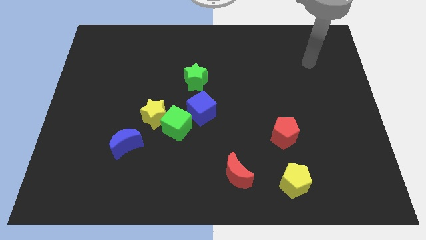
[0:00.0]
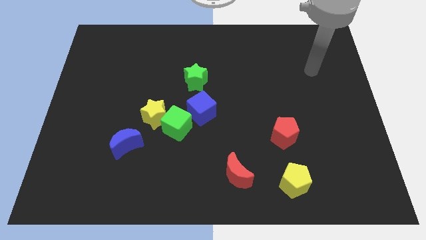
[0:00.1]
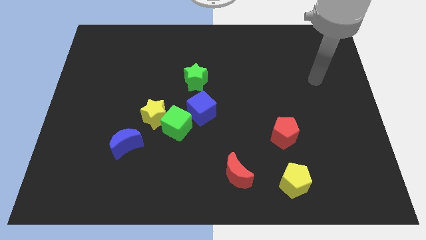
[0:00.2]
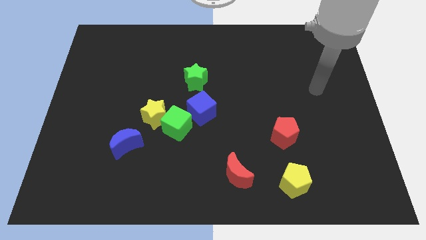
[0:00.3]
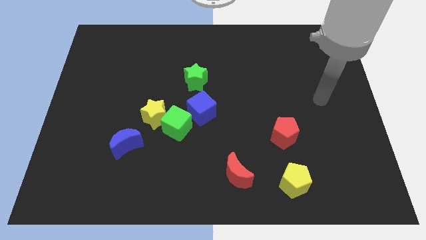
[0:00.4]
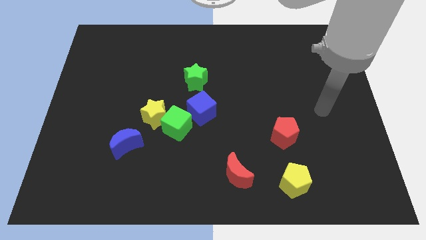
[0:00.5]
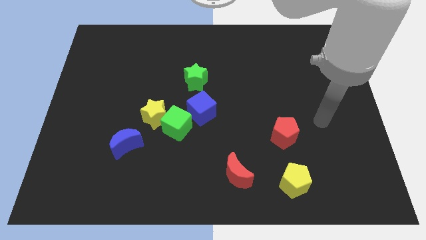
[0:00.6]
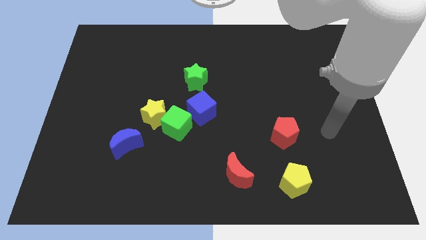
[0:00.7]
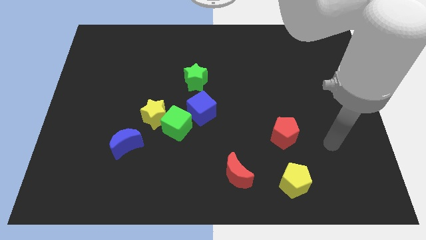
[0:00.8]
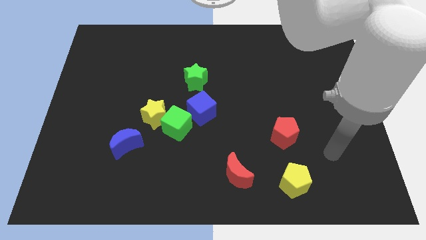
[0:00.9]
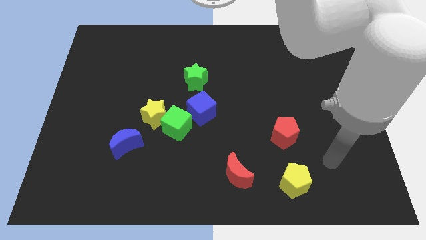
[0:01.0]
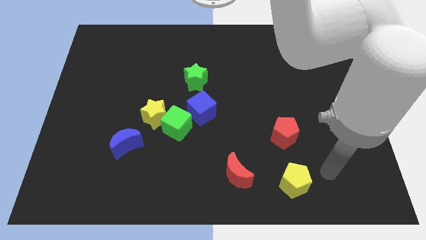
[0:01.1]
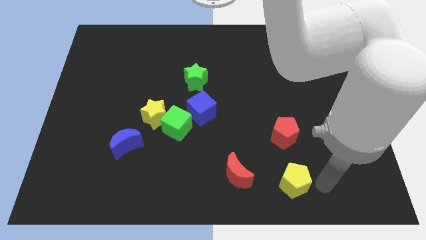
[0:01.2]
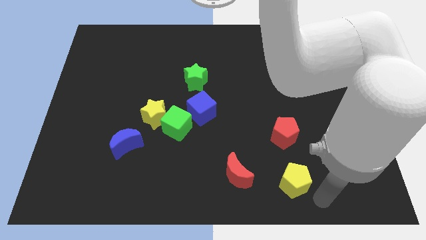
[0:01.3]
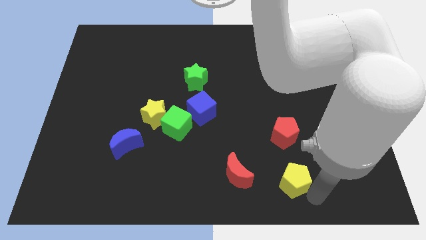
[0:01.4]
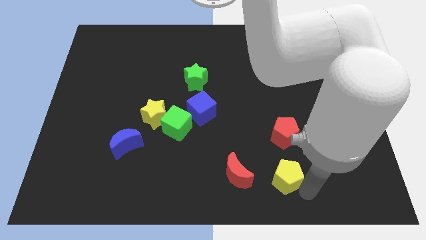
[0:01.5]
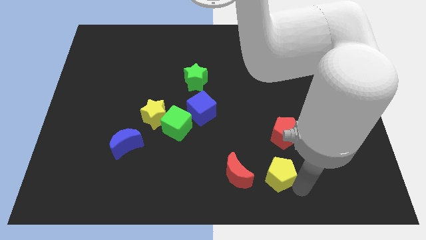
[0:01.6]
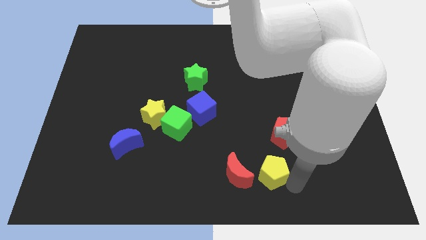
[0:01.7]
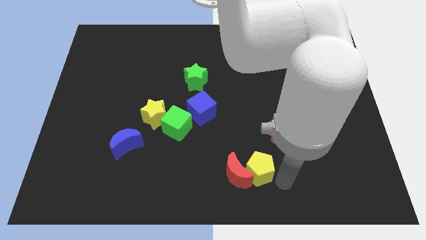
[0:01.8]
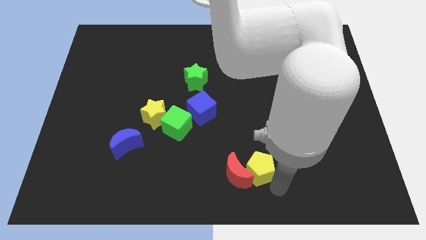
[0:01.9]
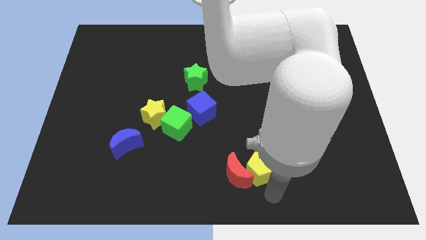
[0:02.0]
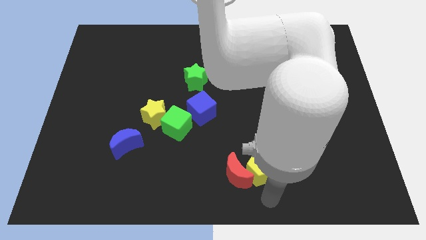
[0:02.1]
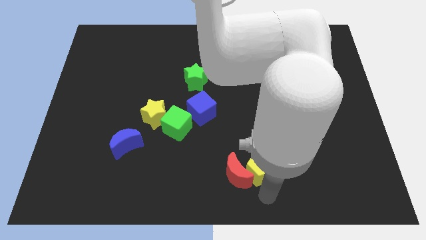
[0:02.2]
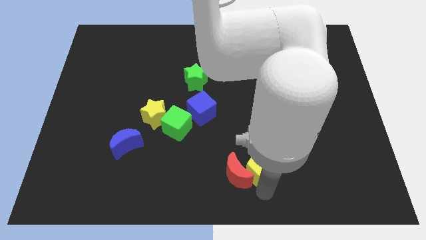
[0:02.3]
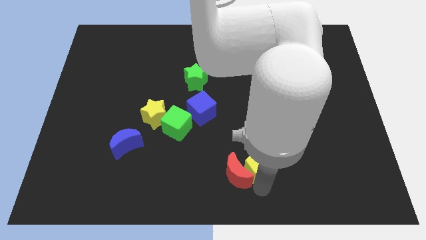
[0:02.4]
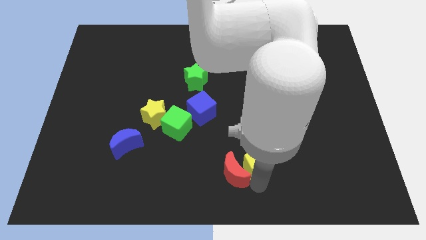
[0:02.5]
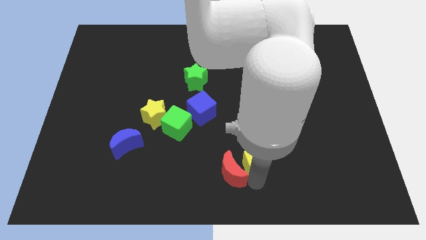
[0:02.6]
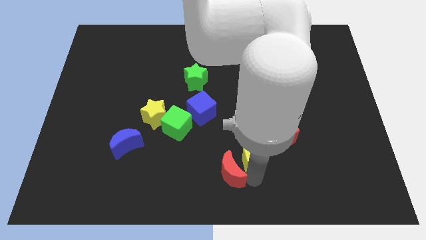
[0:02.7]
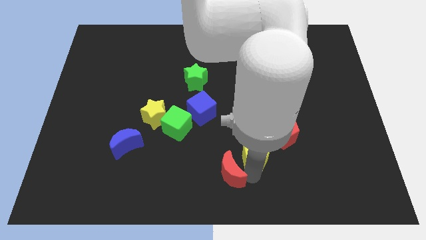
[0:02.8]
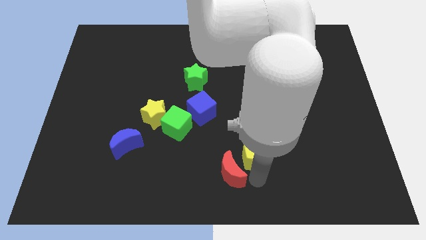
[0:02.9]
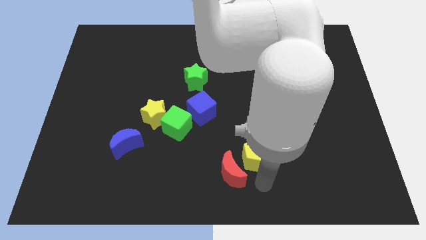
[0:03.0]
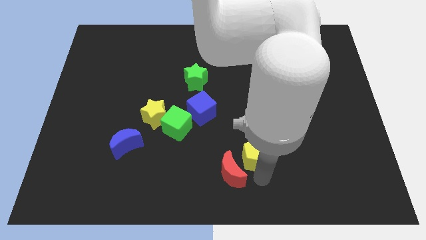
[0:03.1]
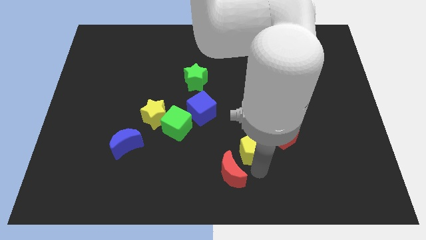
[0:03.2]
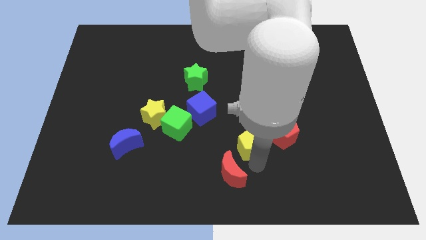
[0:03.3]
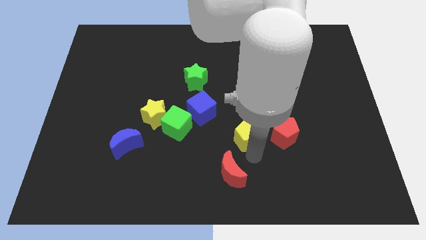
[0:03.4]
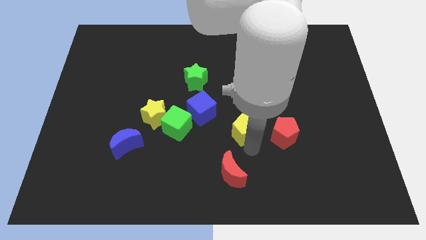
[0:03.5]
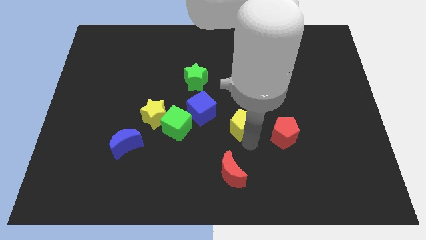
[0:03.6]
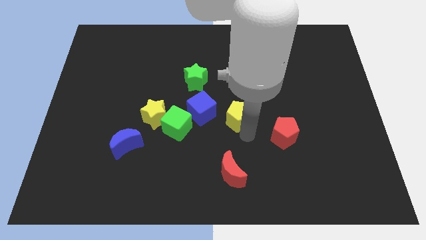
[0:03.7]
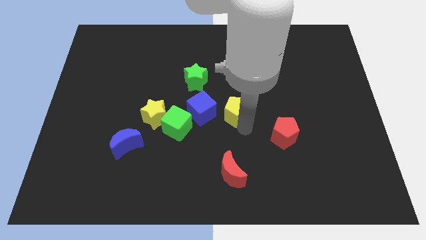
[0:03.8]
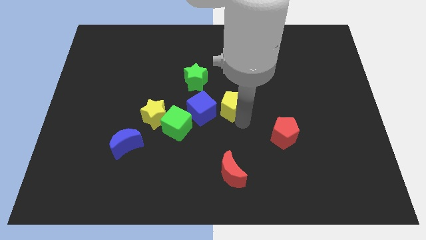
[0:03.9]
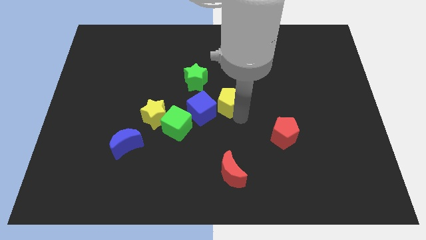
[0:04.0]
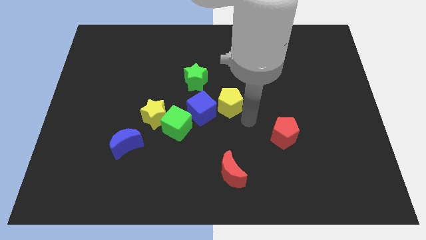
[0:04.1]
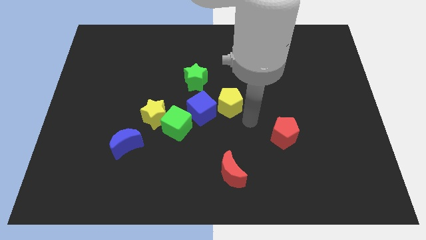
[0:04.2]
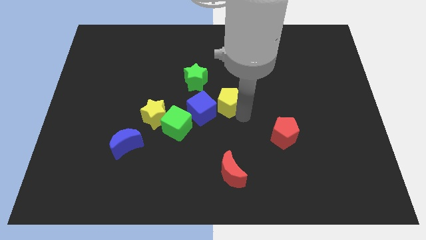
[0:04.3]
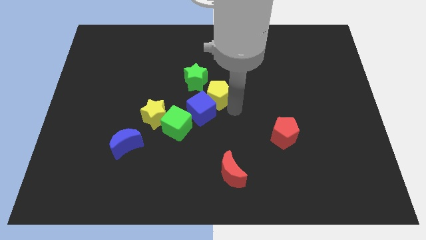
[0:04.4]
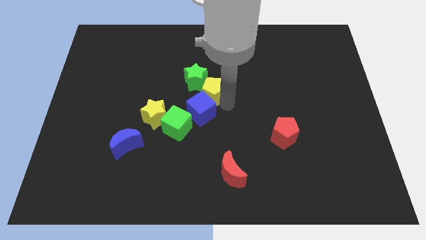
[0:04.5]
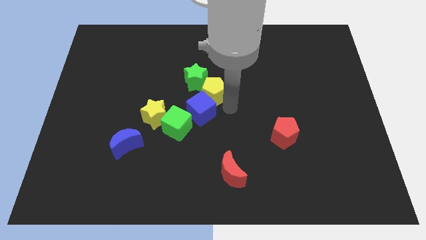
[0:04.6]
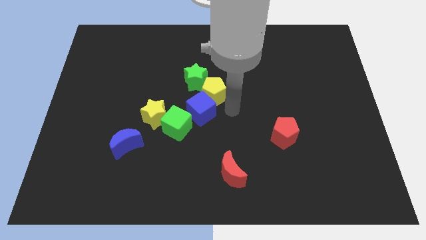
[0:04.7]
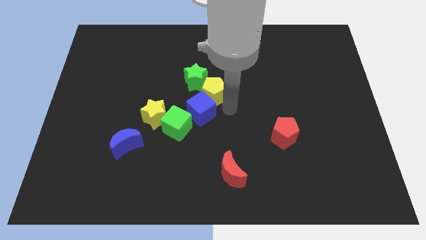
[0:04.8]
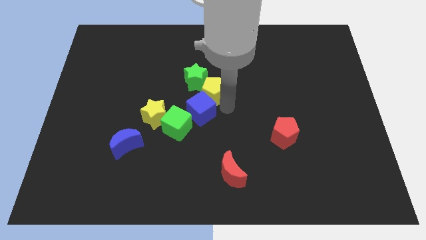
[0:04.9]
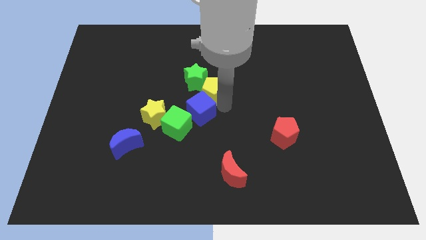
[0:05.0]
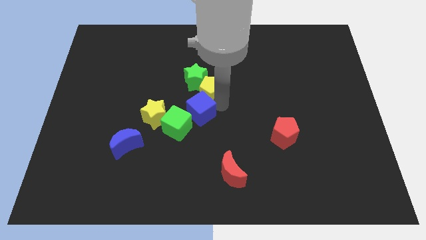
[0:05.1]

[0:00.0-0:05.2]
put the yellow pentagon to the green star

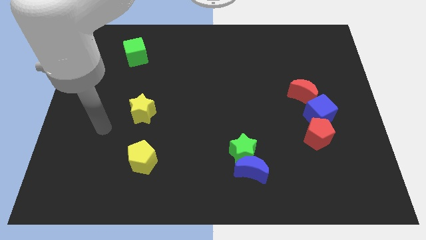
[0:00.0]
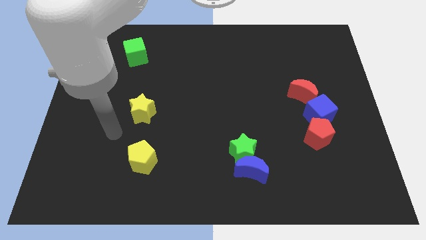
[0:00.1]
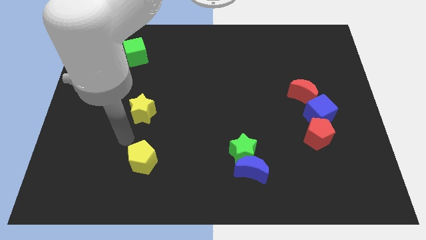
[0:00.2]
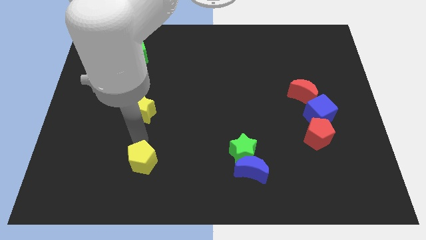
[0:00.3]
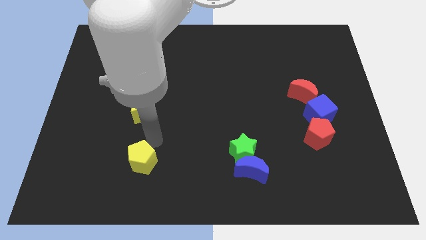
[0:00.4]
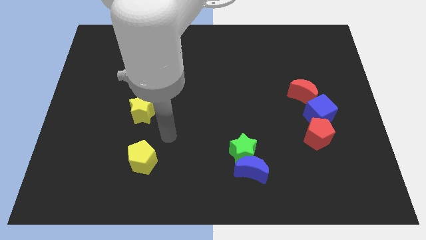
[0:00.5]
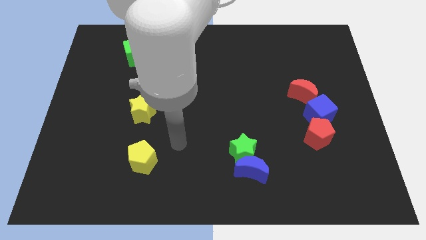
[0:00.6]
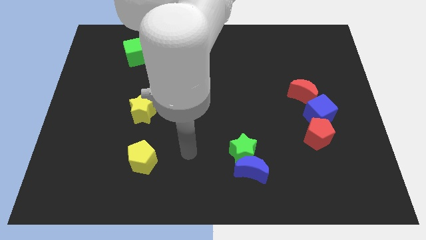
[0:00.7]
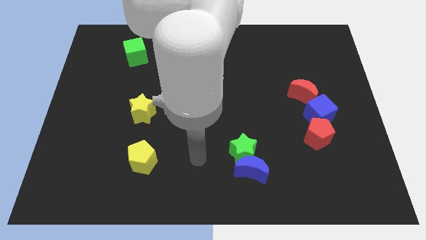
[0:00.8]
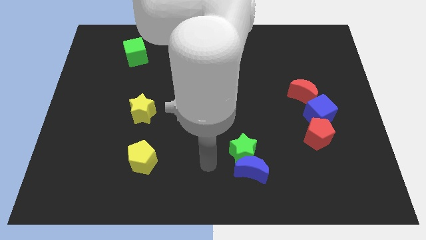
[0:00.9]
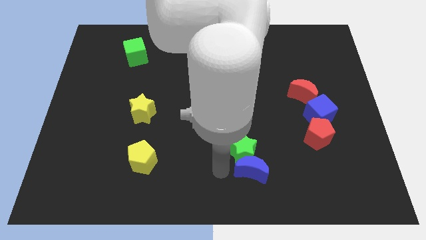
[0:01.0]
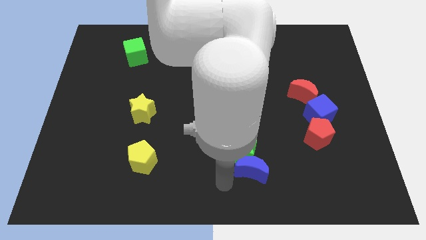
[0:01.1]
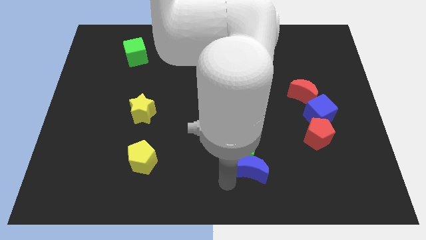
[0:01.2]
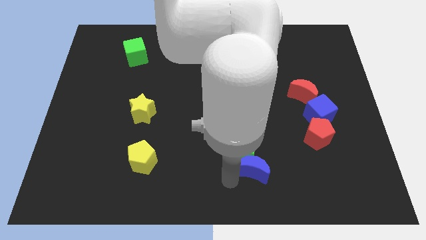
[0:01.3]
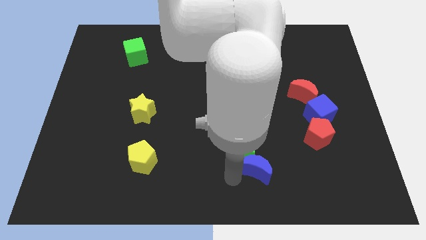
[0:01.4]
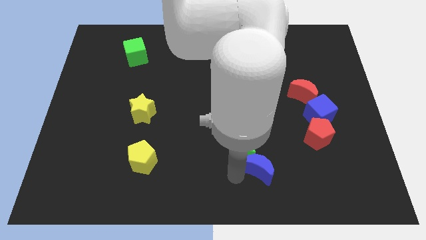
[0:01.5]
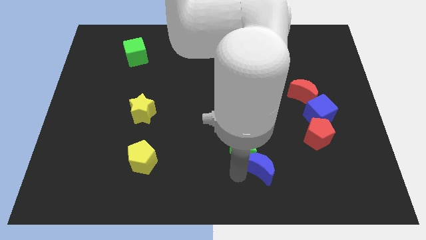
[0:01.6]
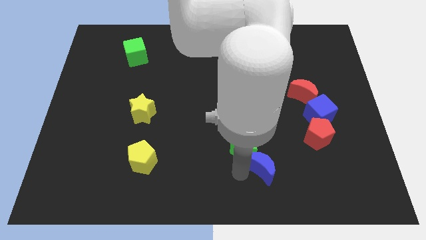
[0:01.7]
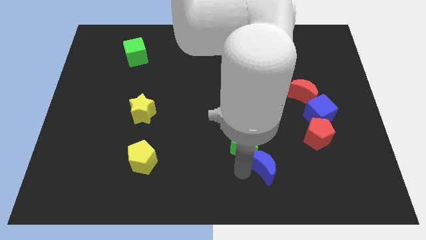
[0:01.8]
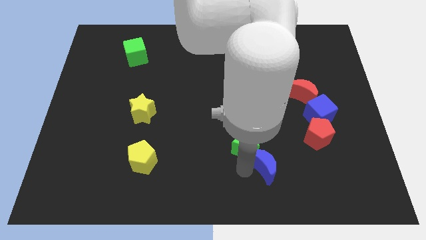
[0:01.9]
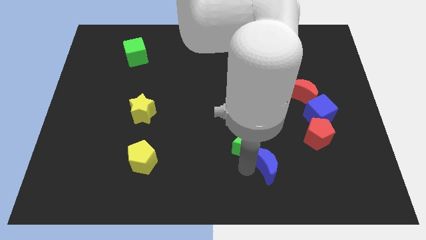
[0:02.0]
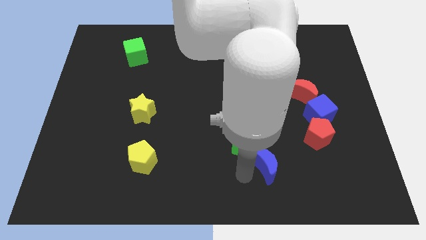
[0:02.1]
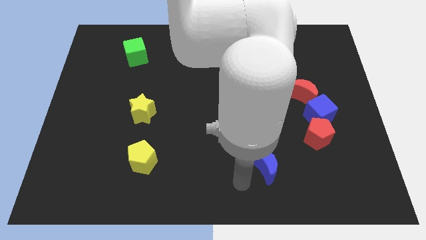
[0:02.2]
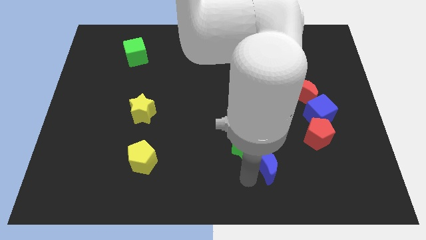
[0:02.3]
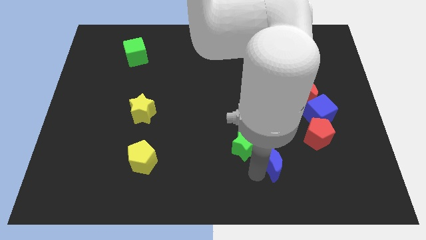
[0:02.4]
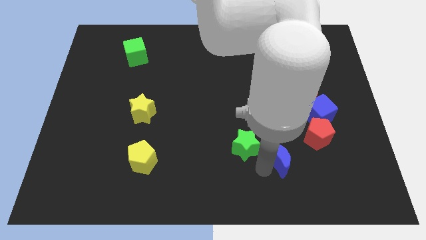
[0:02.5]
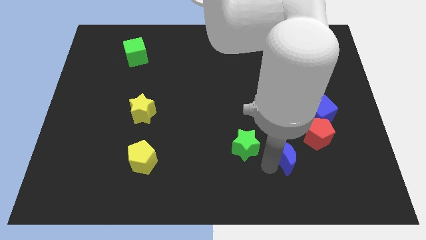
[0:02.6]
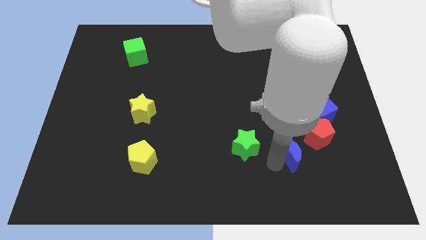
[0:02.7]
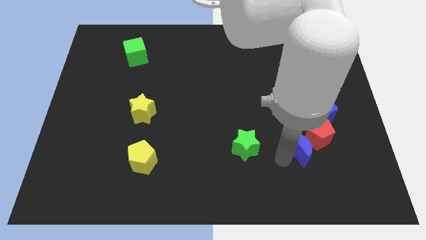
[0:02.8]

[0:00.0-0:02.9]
move the blue moon close to the red pentagon
